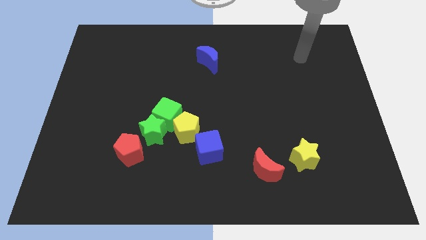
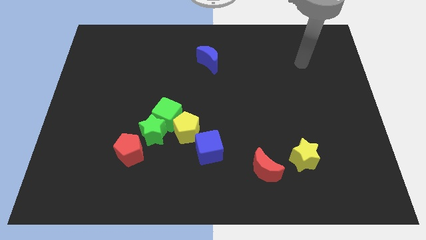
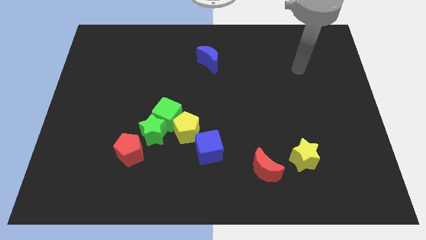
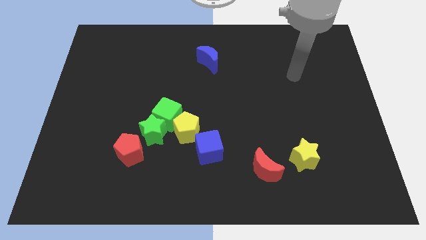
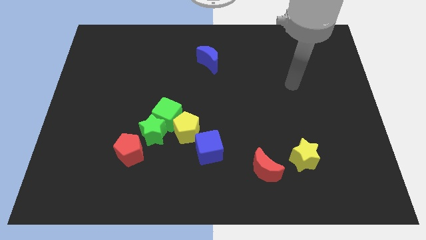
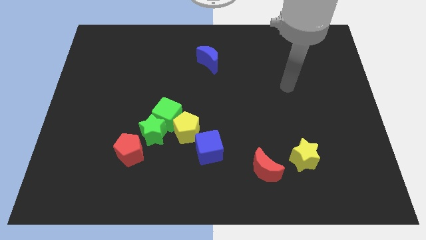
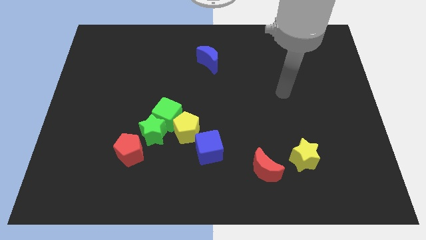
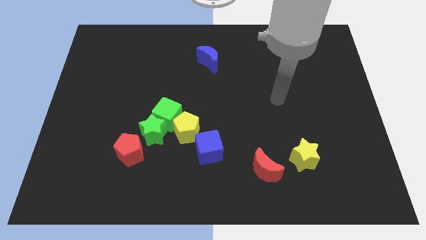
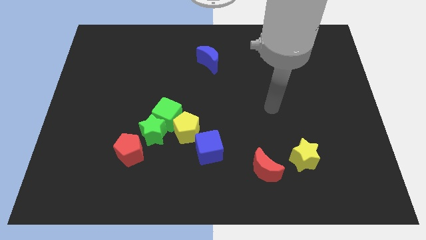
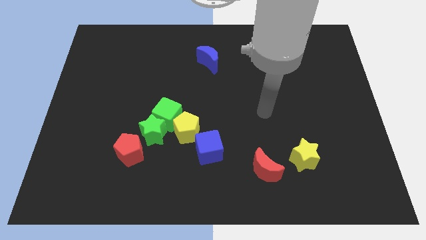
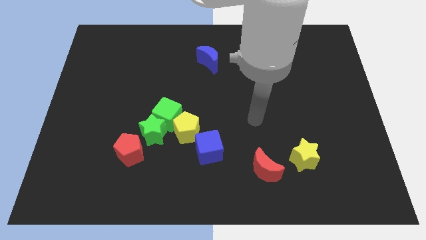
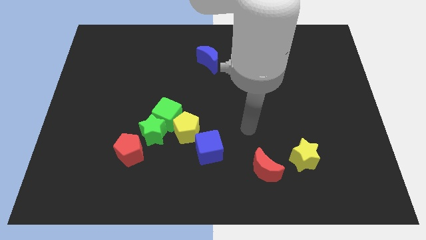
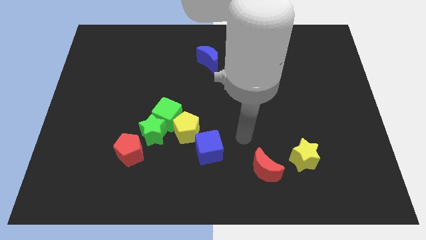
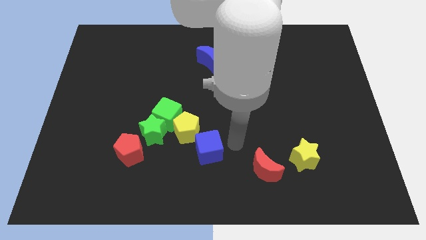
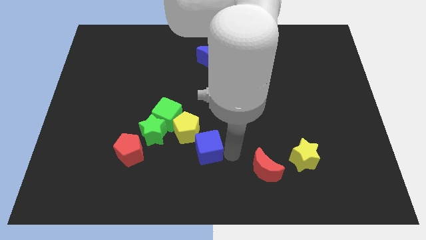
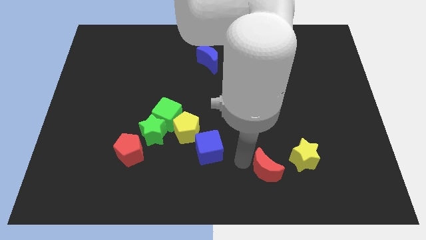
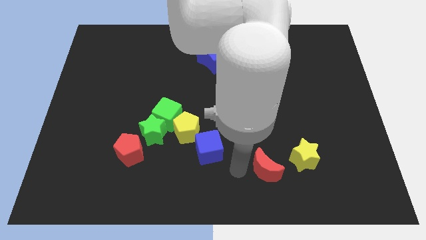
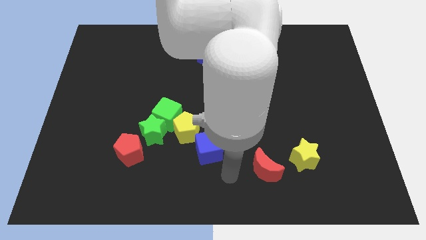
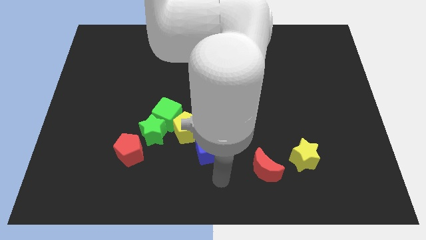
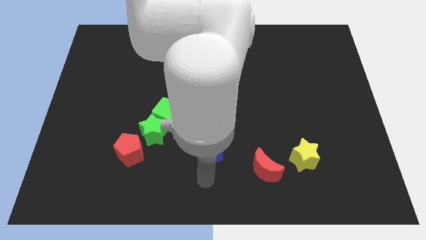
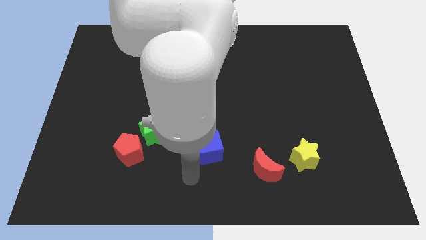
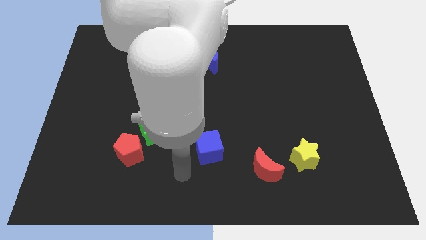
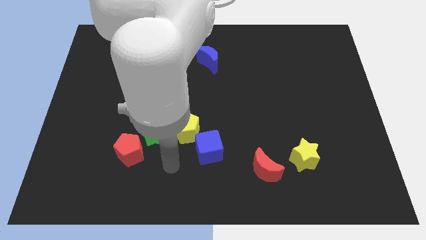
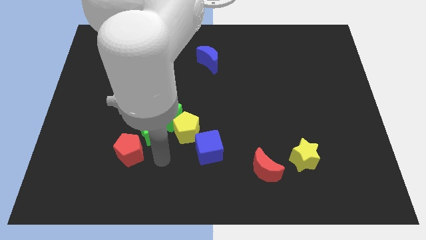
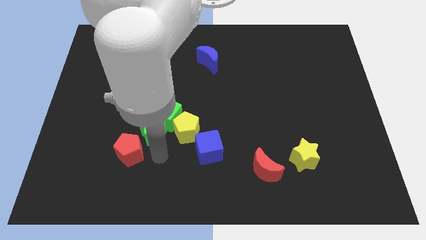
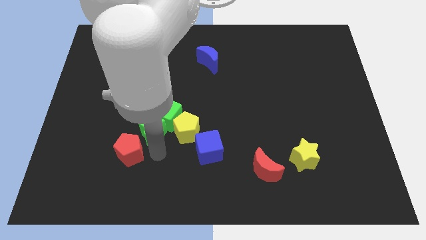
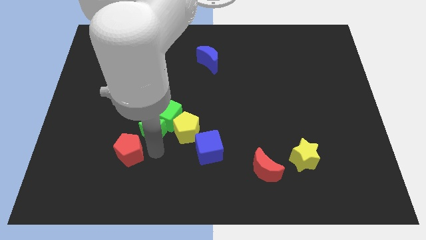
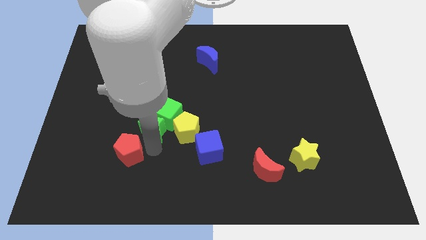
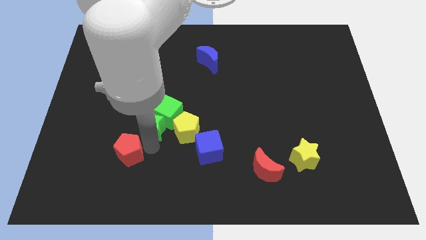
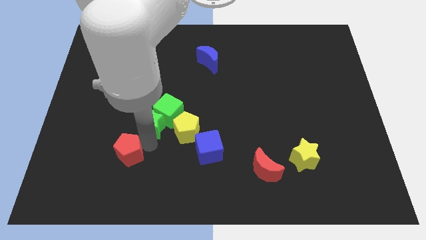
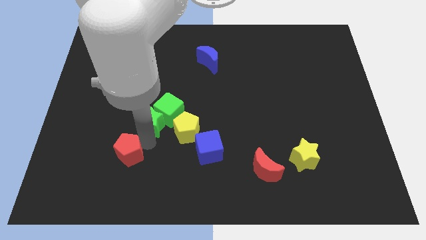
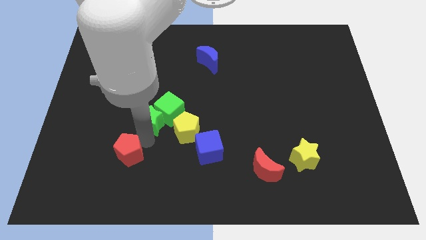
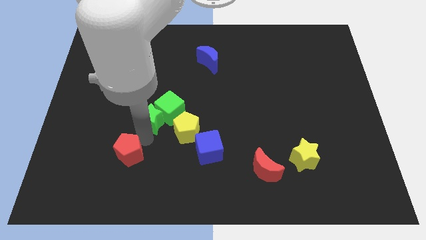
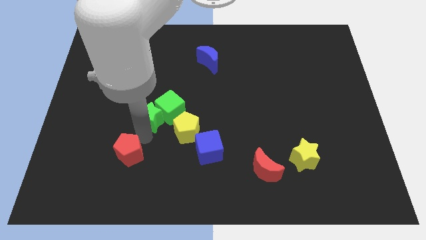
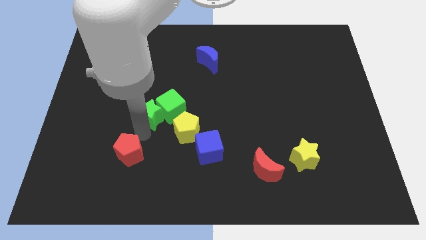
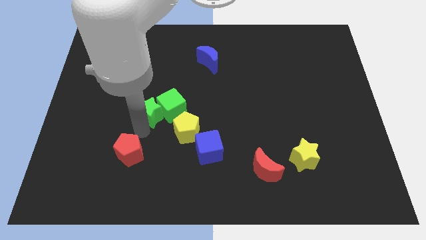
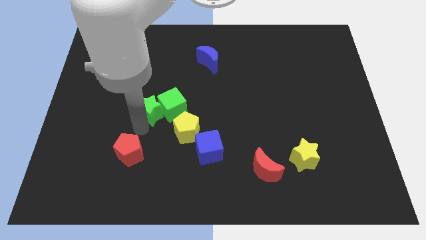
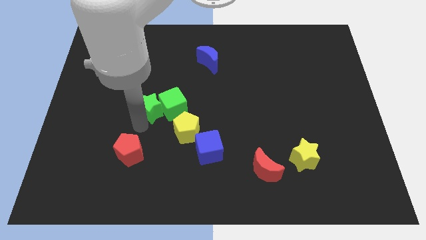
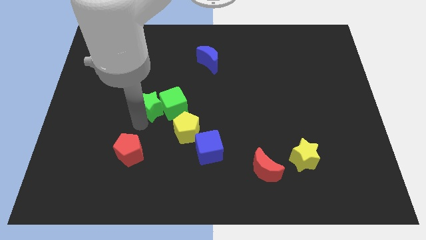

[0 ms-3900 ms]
push the green star upwards a little

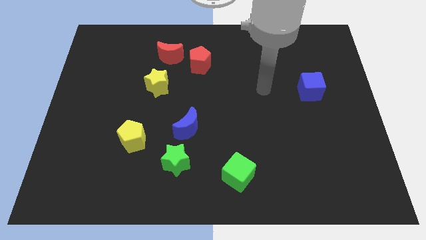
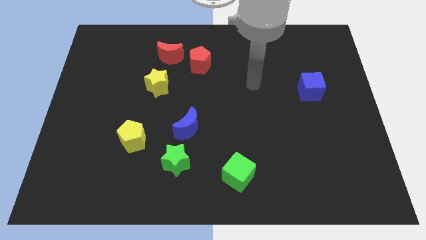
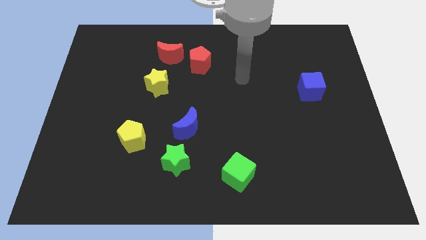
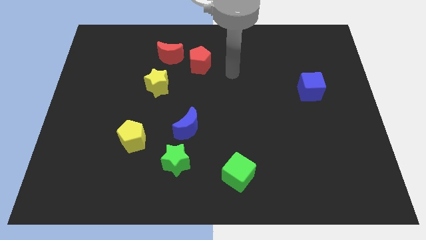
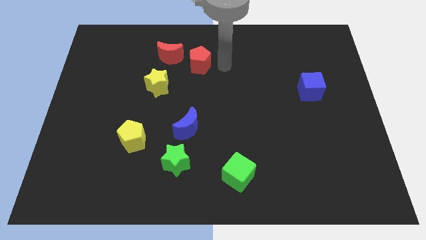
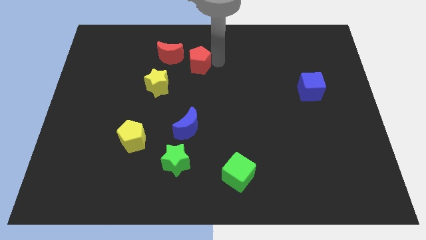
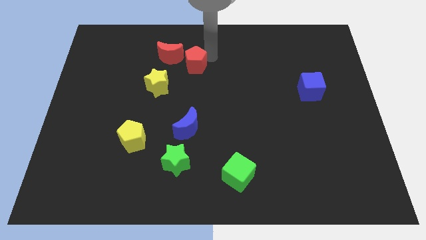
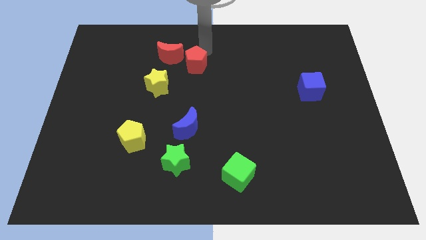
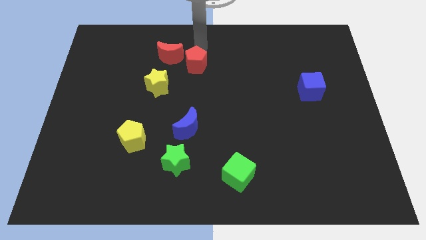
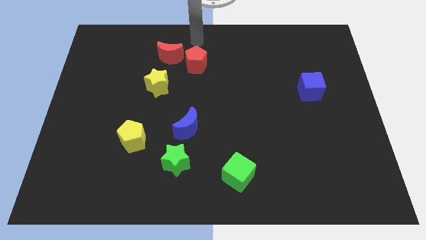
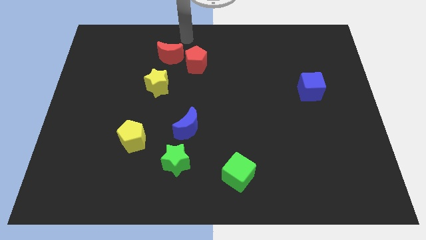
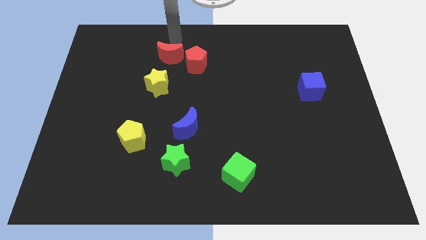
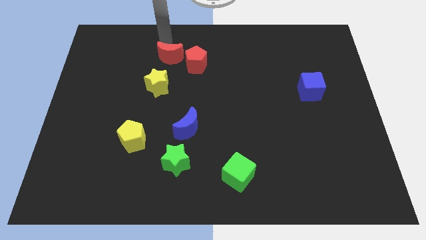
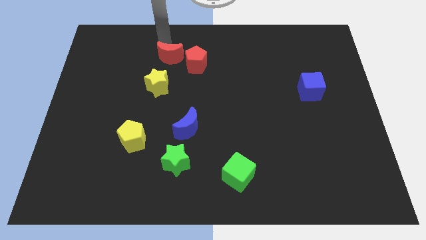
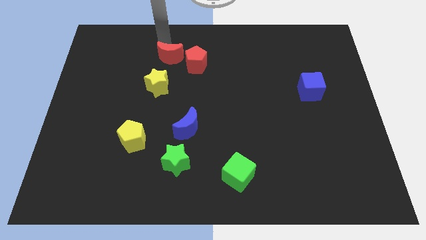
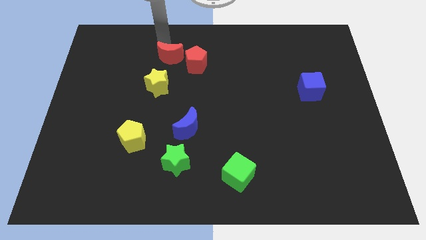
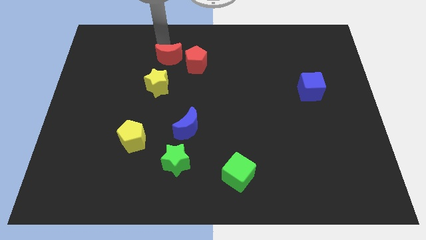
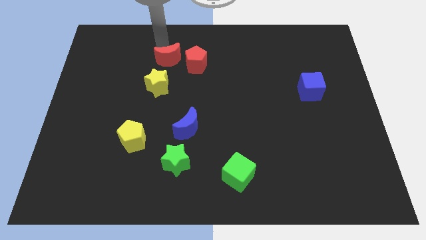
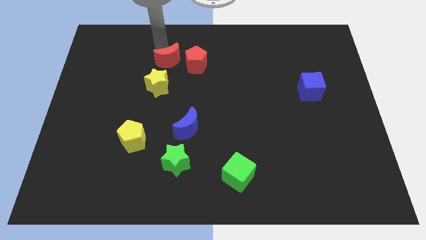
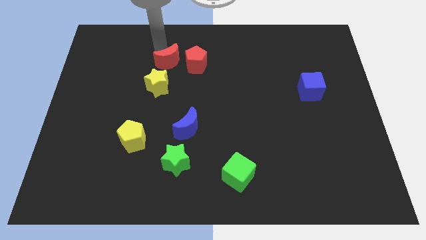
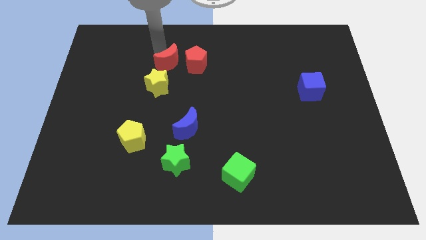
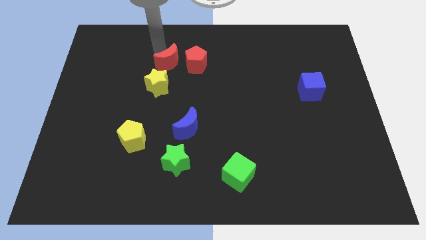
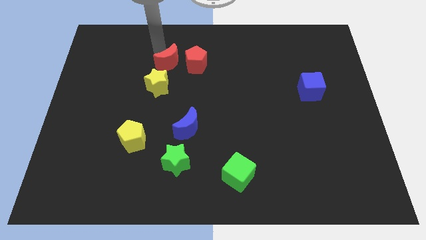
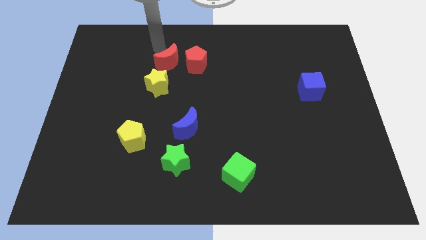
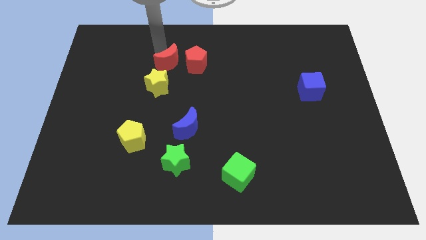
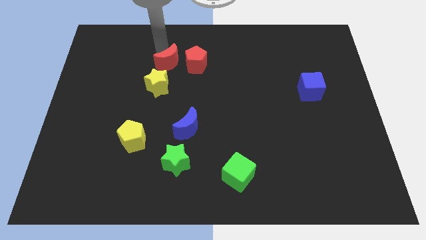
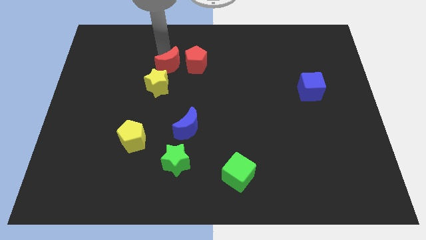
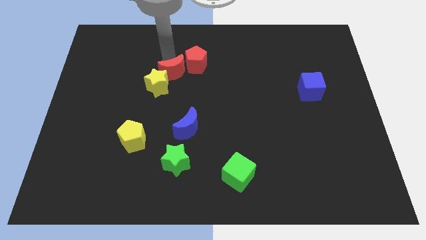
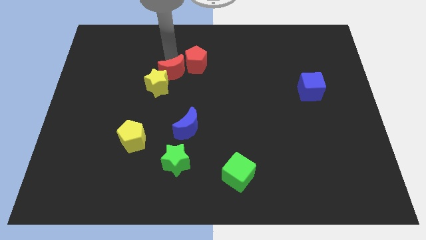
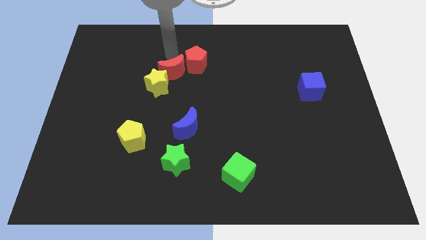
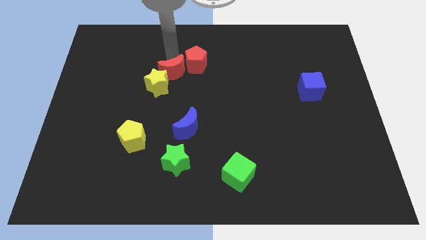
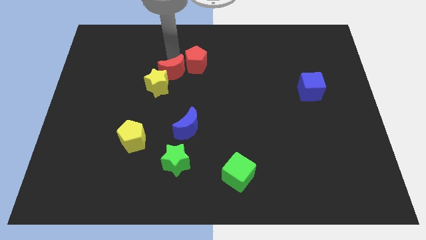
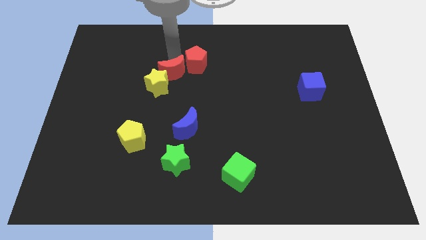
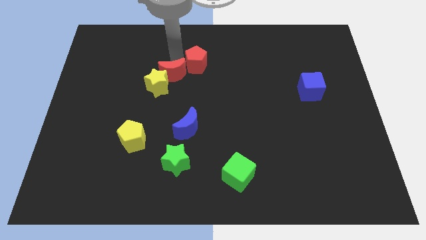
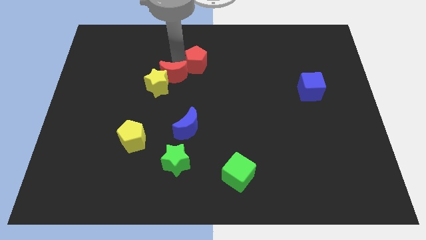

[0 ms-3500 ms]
slightly slide the red moon down

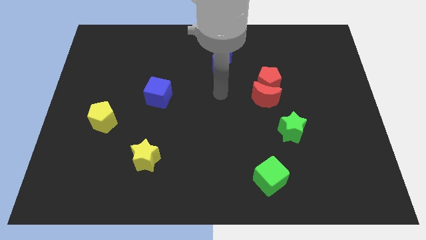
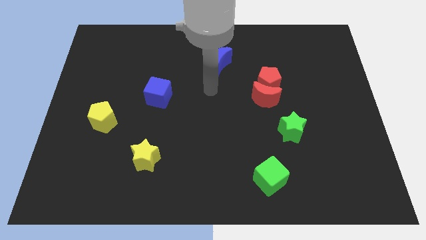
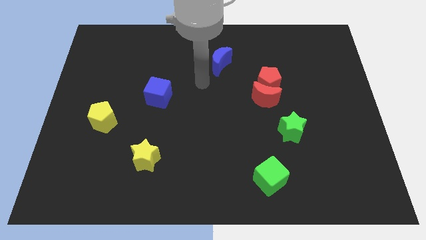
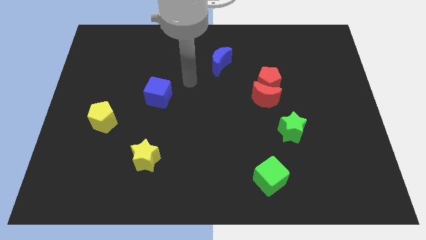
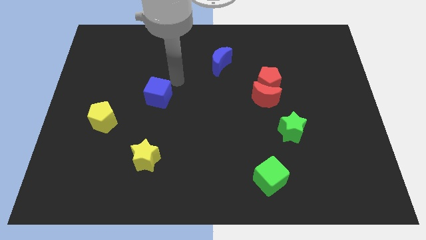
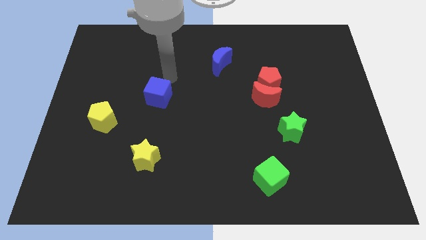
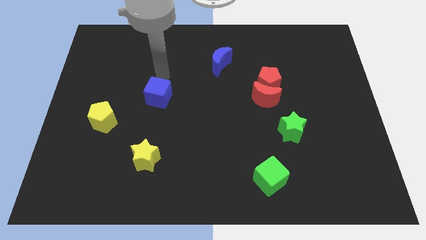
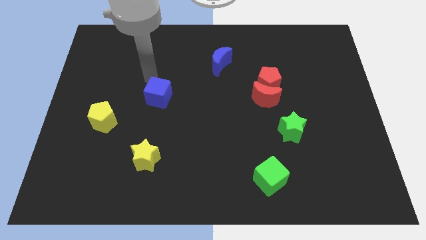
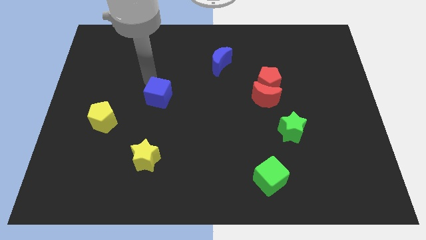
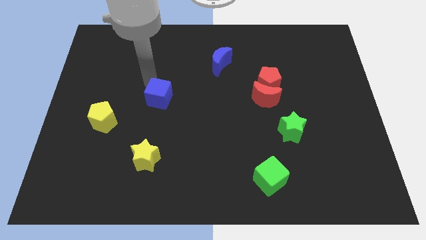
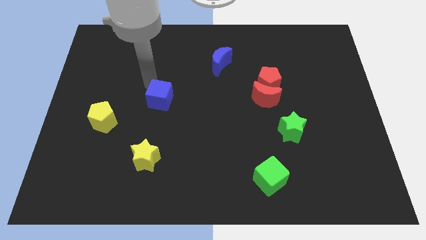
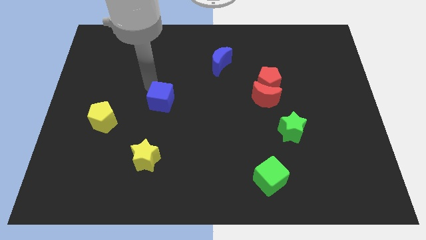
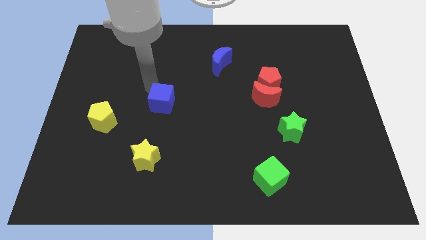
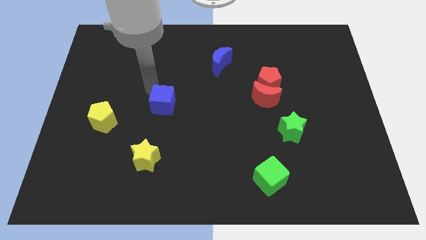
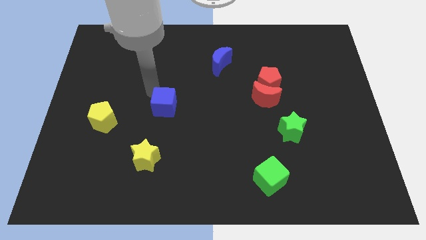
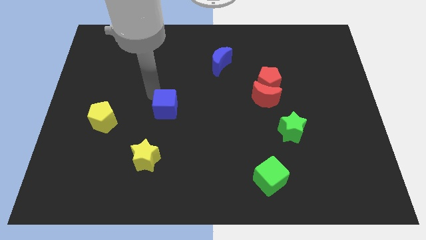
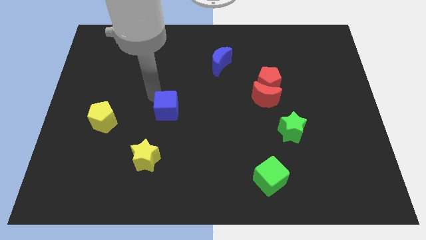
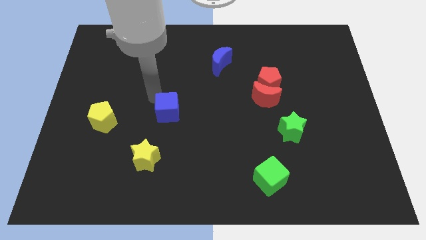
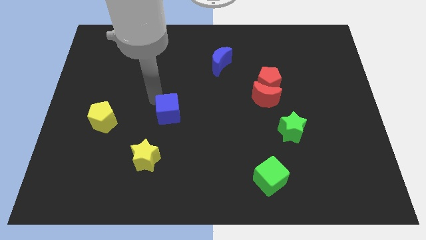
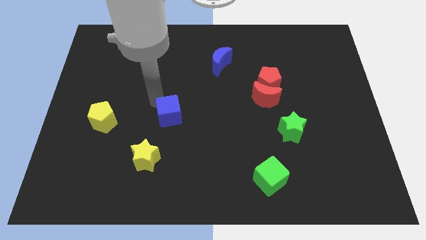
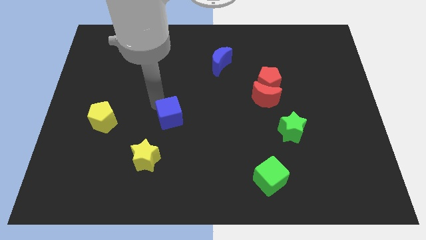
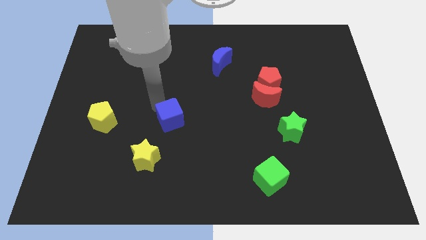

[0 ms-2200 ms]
move the blue cube somewhat downwards and right diagonally
